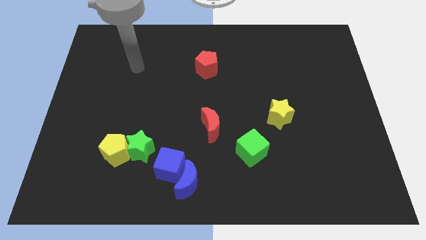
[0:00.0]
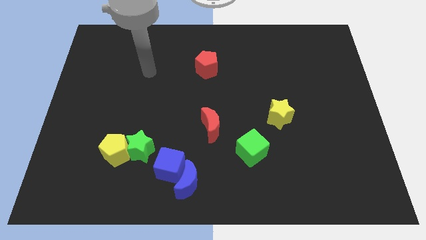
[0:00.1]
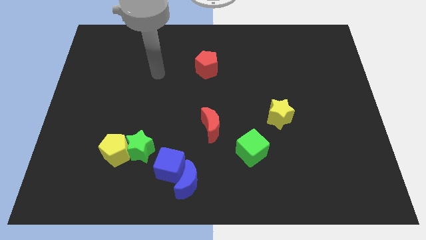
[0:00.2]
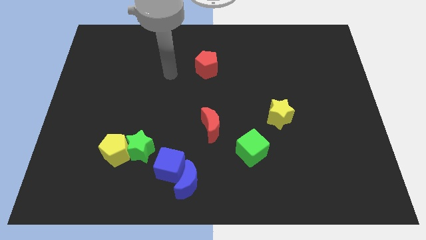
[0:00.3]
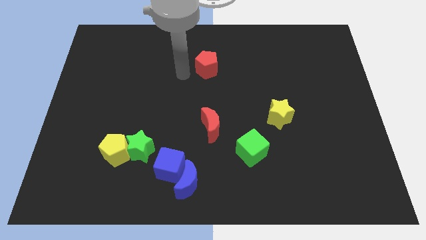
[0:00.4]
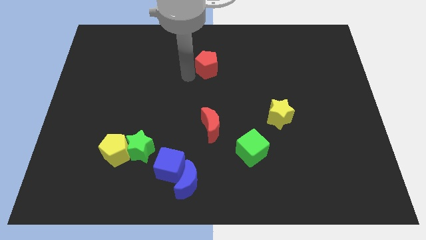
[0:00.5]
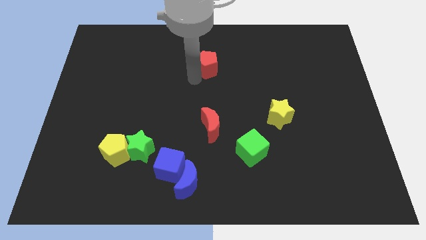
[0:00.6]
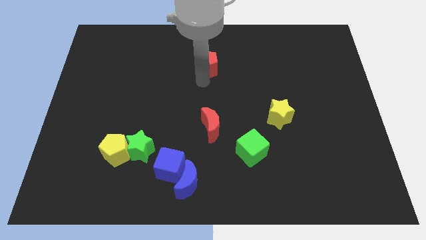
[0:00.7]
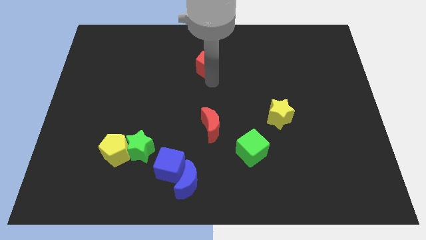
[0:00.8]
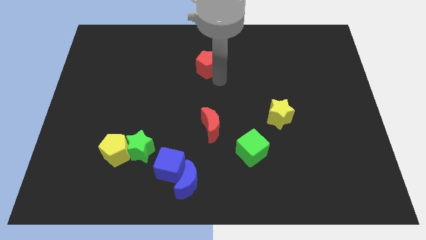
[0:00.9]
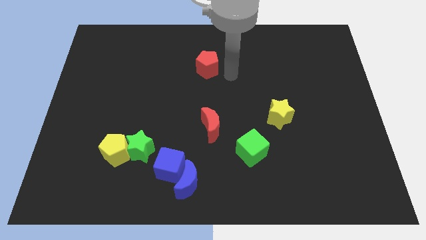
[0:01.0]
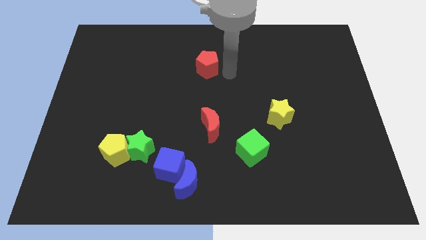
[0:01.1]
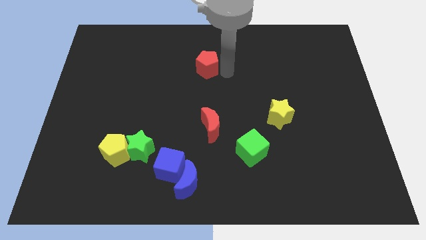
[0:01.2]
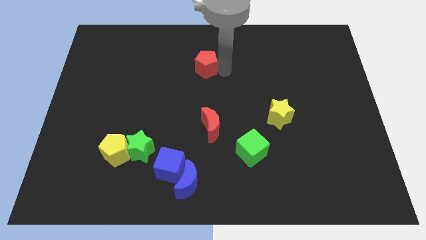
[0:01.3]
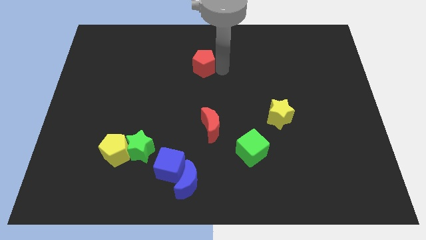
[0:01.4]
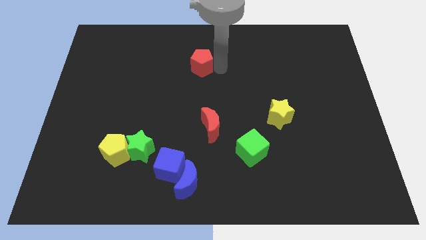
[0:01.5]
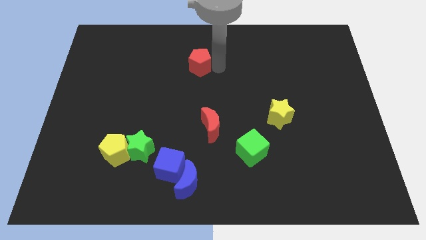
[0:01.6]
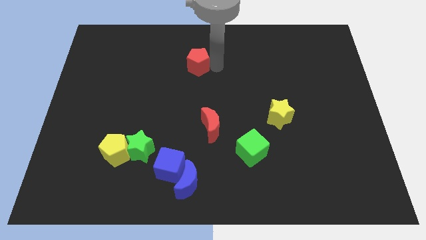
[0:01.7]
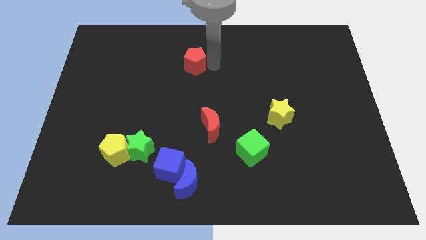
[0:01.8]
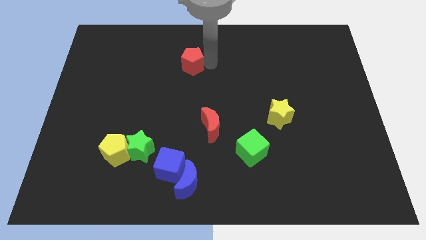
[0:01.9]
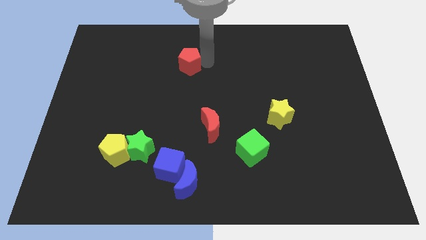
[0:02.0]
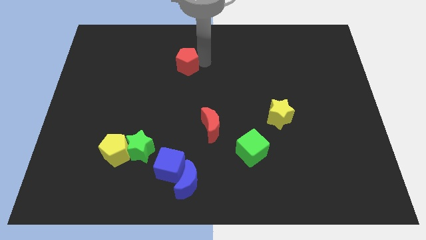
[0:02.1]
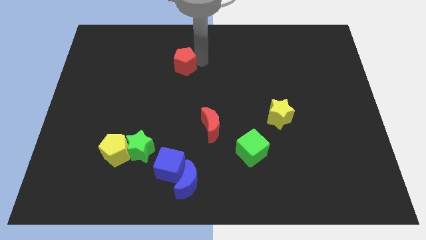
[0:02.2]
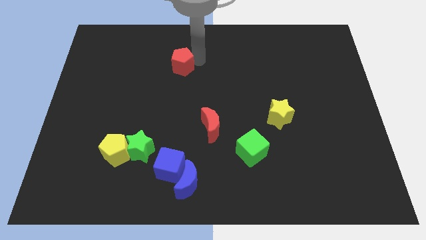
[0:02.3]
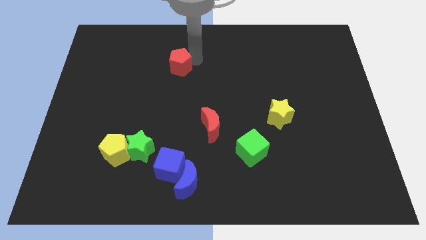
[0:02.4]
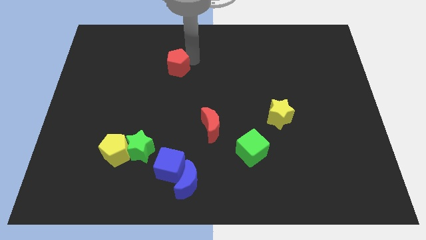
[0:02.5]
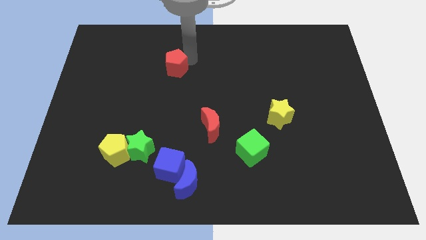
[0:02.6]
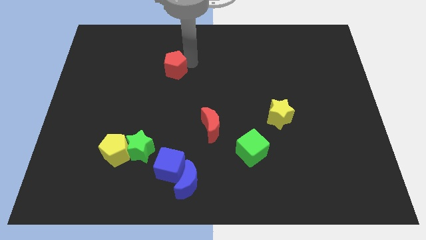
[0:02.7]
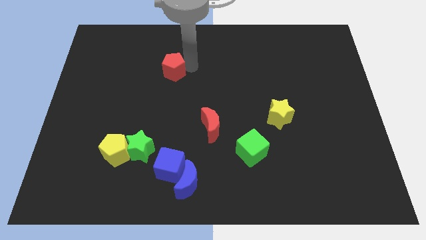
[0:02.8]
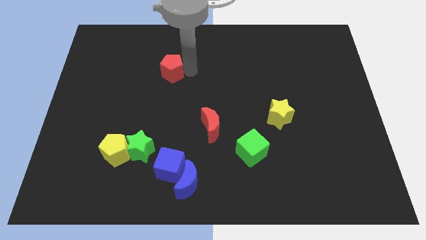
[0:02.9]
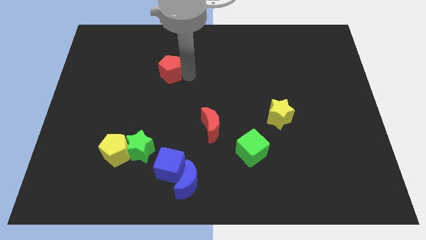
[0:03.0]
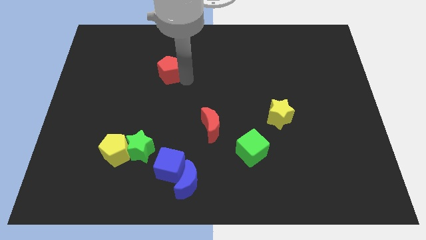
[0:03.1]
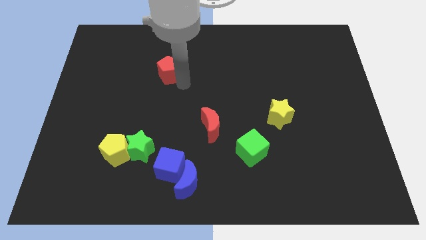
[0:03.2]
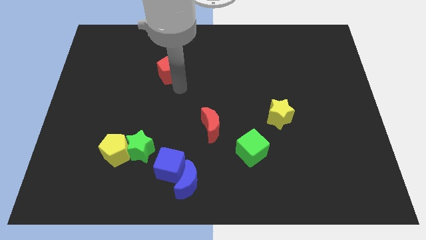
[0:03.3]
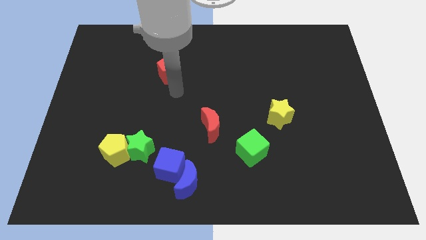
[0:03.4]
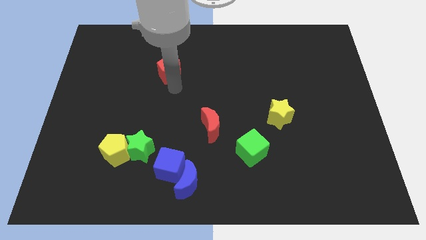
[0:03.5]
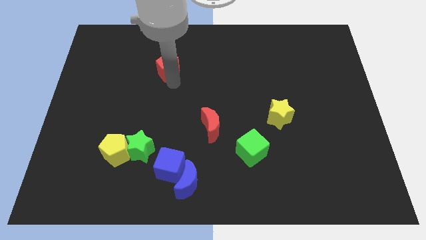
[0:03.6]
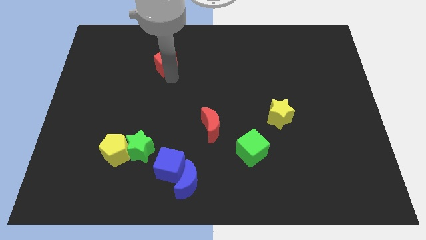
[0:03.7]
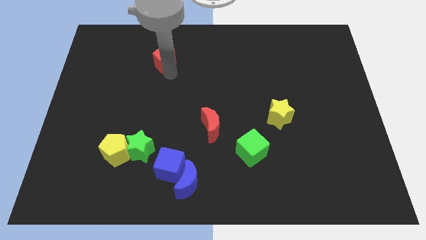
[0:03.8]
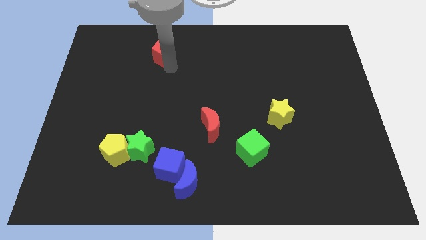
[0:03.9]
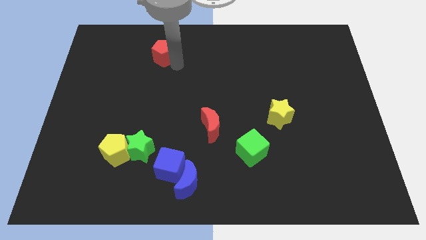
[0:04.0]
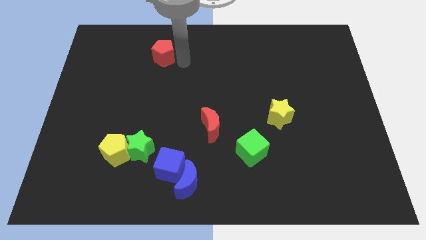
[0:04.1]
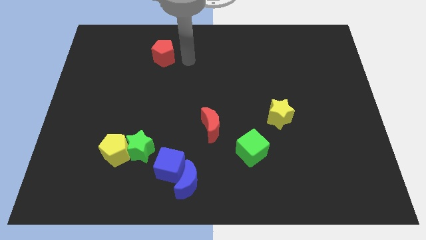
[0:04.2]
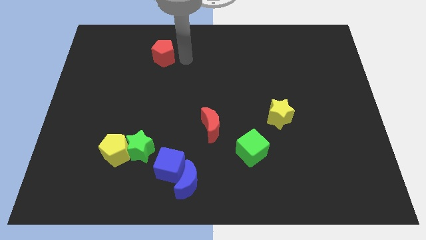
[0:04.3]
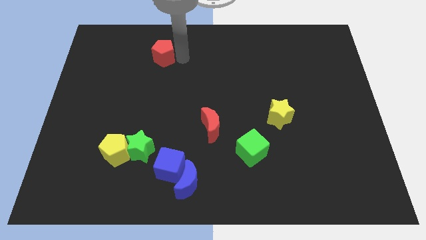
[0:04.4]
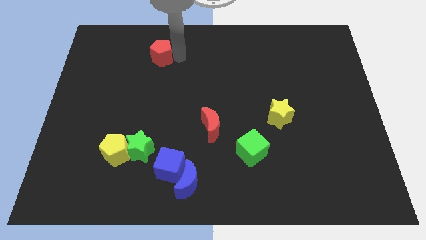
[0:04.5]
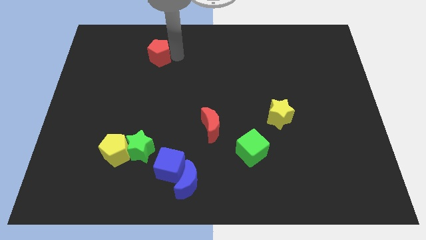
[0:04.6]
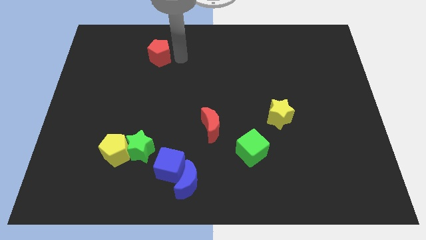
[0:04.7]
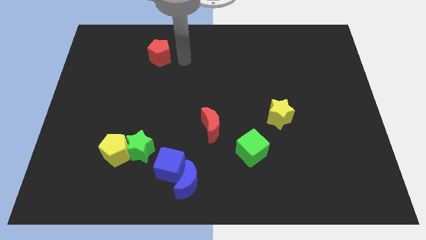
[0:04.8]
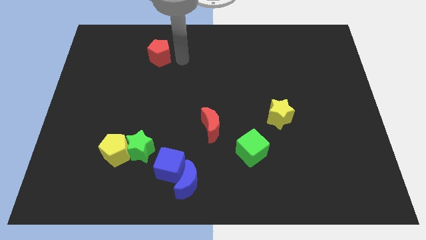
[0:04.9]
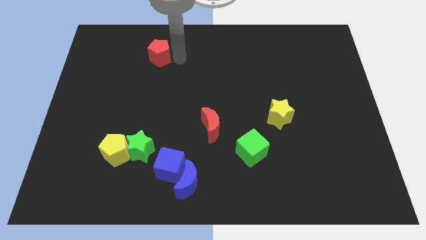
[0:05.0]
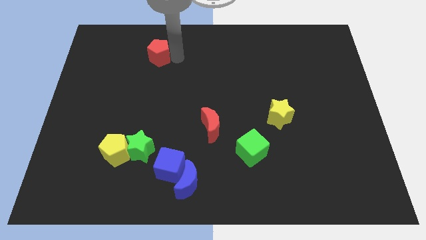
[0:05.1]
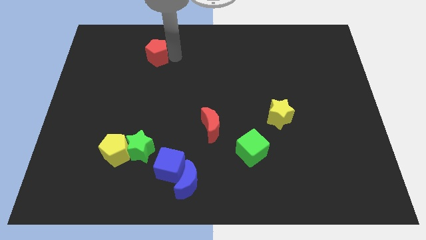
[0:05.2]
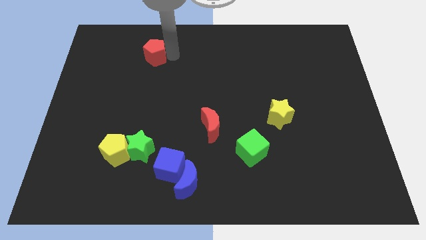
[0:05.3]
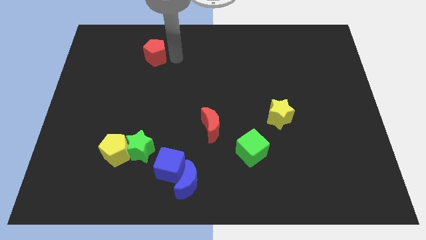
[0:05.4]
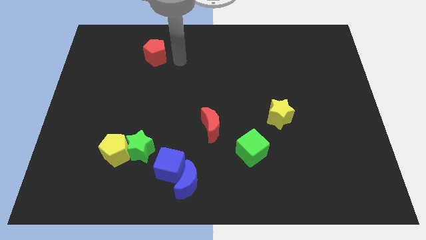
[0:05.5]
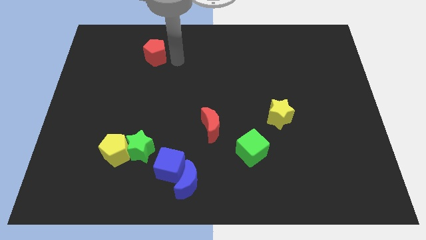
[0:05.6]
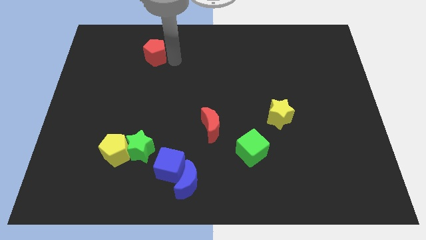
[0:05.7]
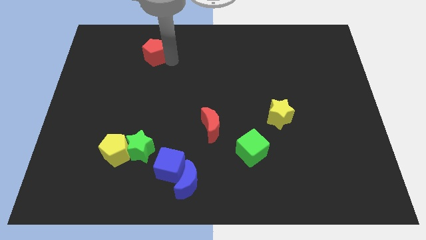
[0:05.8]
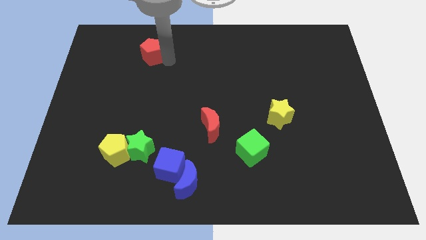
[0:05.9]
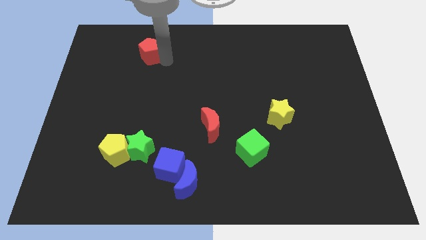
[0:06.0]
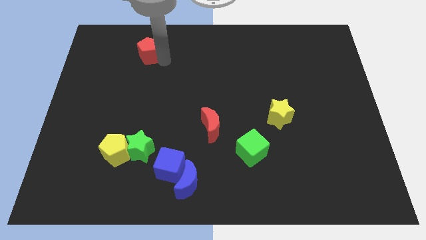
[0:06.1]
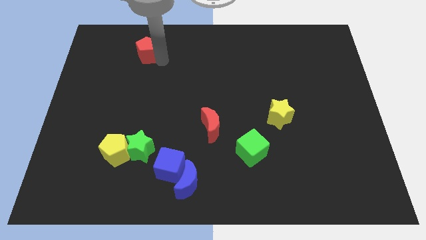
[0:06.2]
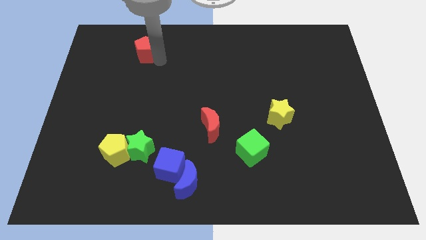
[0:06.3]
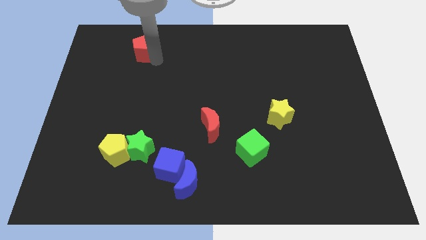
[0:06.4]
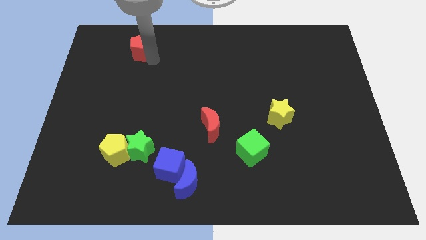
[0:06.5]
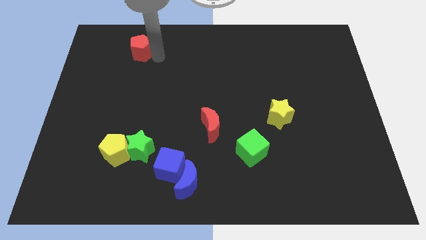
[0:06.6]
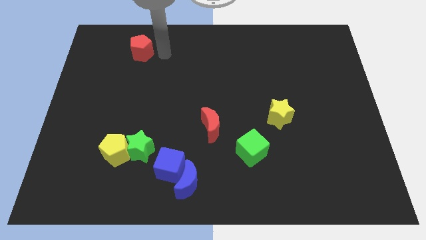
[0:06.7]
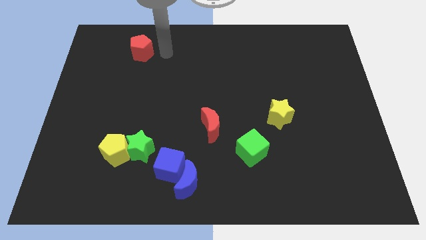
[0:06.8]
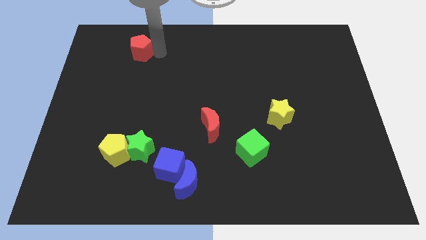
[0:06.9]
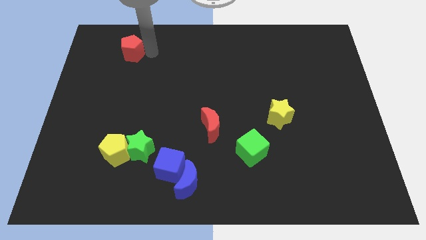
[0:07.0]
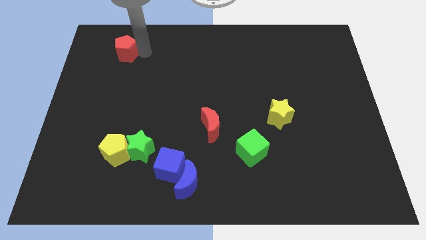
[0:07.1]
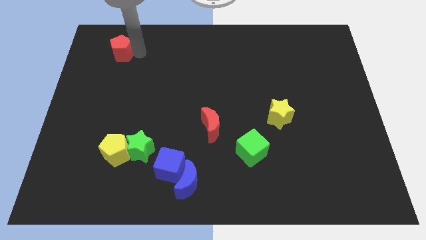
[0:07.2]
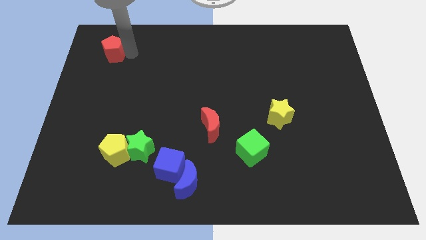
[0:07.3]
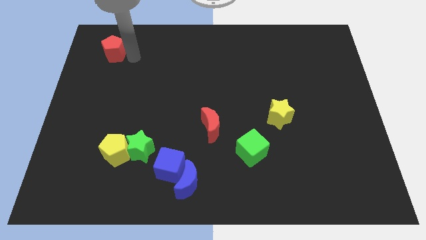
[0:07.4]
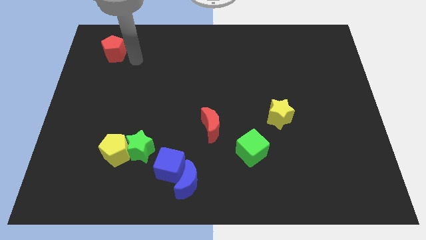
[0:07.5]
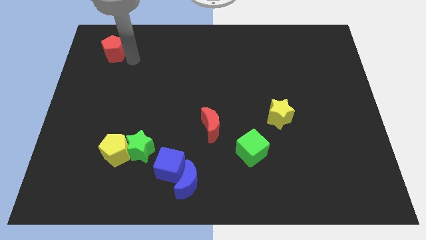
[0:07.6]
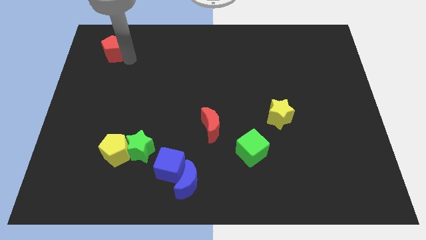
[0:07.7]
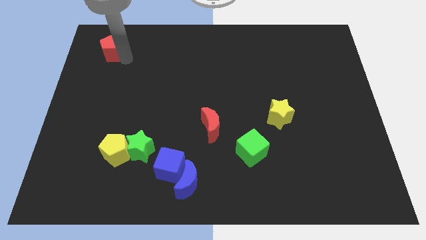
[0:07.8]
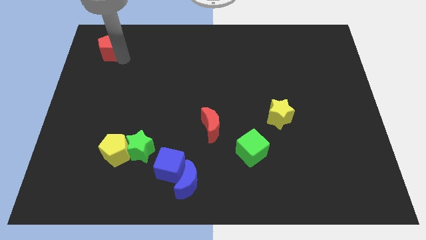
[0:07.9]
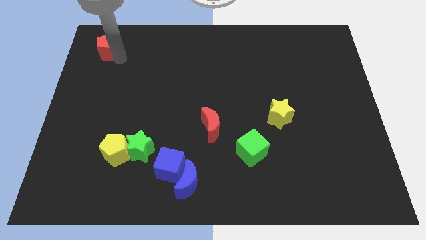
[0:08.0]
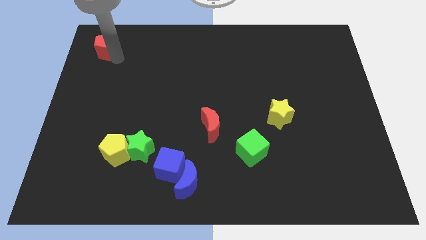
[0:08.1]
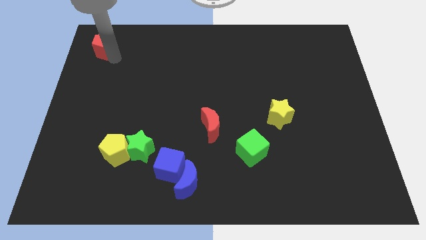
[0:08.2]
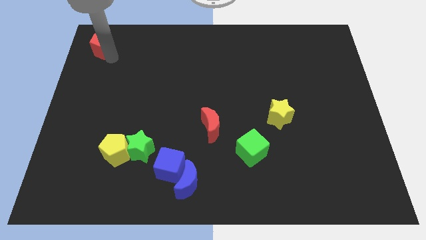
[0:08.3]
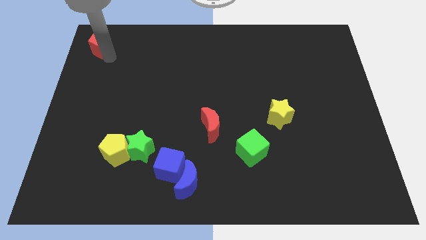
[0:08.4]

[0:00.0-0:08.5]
slide the red pentagon to the top left corner
